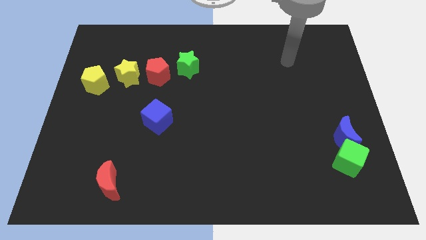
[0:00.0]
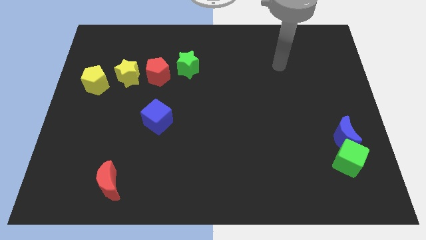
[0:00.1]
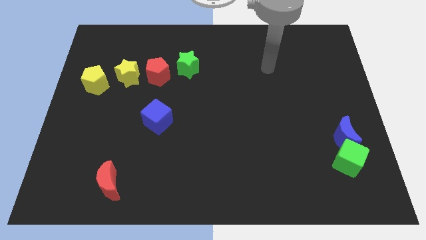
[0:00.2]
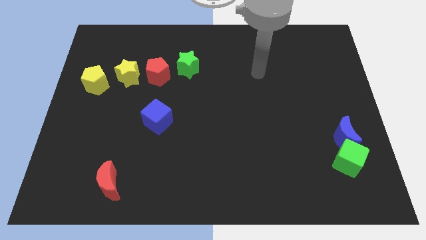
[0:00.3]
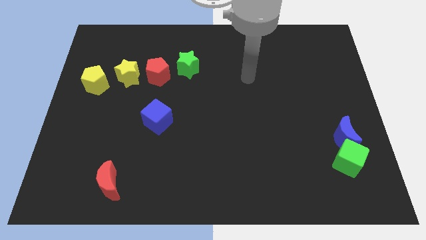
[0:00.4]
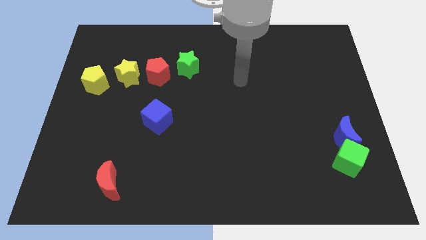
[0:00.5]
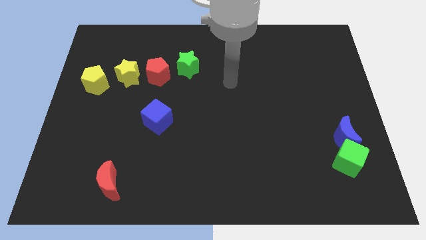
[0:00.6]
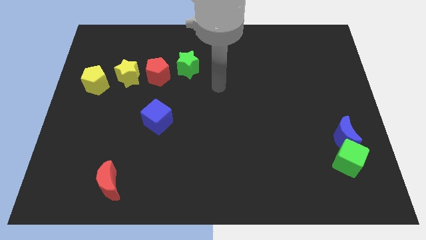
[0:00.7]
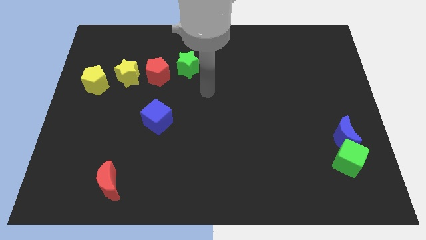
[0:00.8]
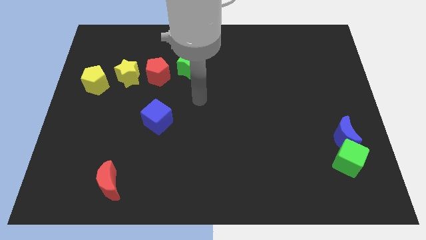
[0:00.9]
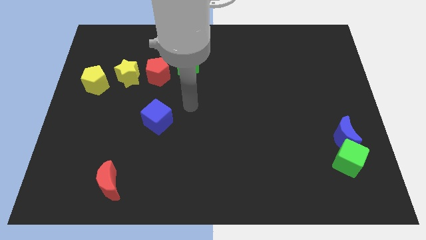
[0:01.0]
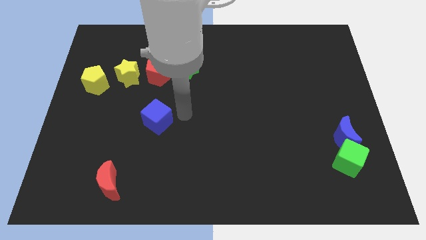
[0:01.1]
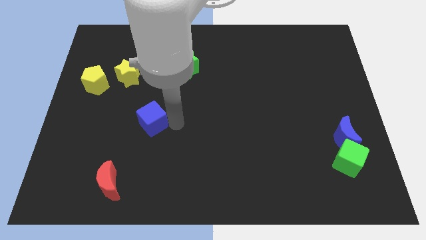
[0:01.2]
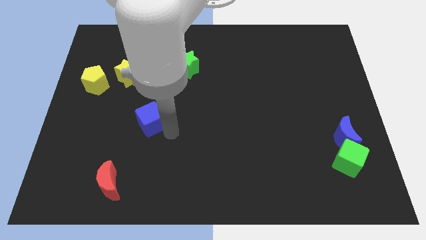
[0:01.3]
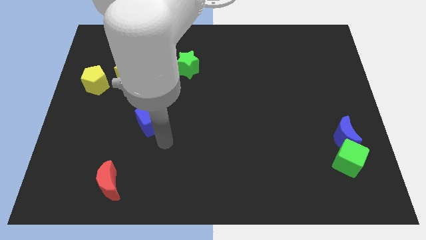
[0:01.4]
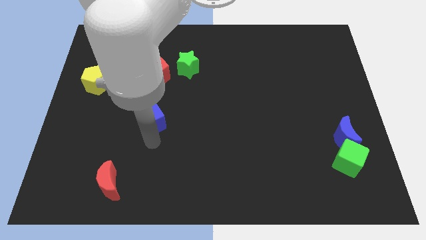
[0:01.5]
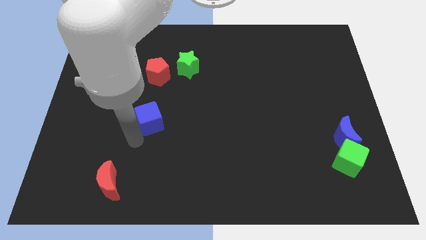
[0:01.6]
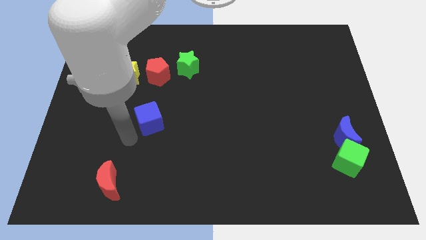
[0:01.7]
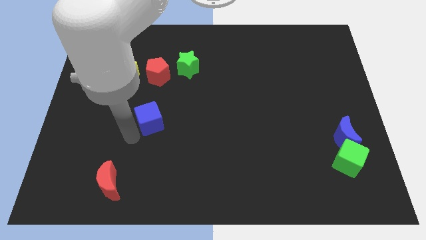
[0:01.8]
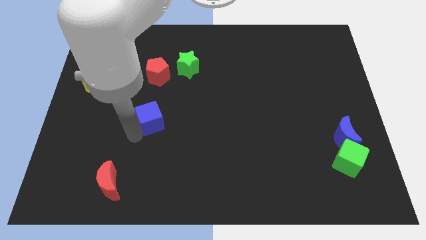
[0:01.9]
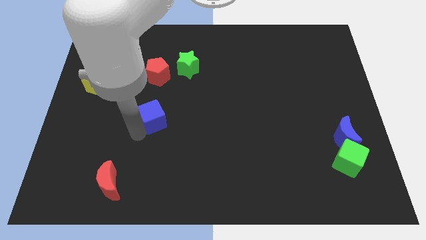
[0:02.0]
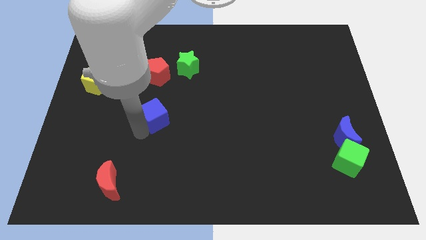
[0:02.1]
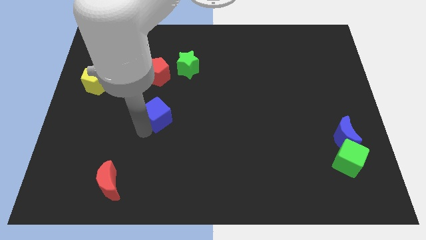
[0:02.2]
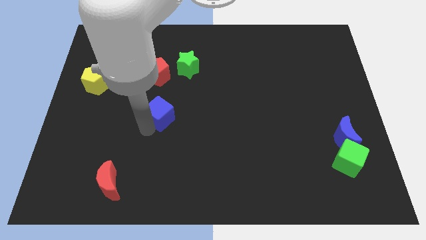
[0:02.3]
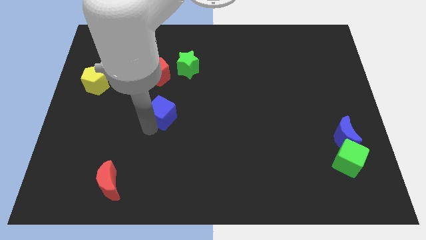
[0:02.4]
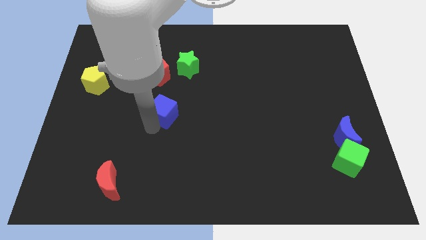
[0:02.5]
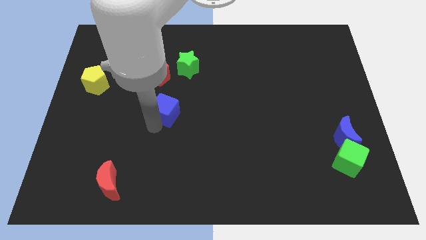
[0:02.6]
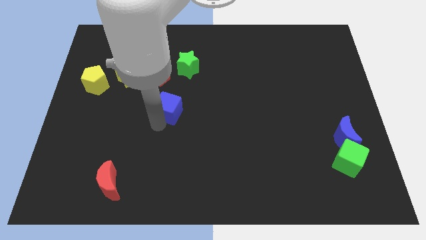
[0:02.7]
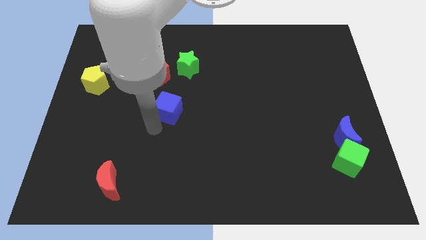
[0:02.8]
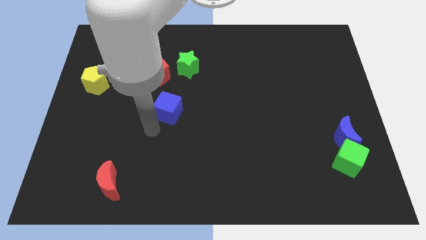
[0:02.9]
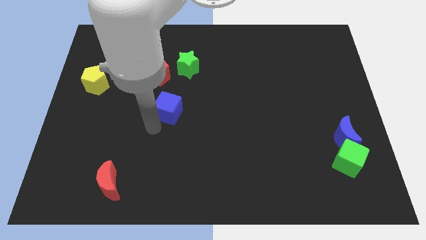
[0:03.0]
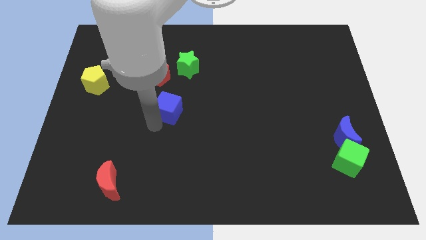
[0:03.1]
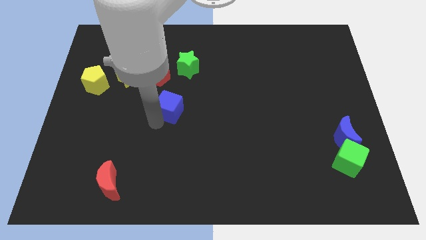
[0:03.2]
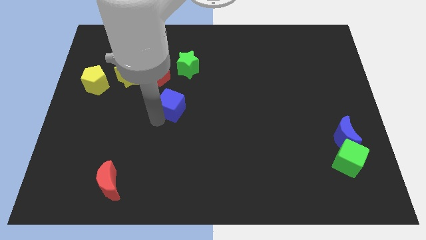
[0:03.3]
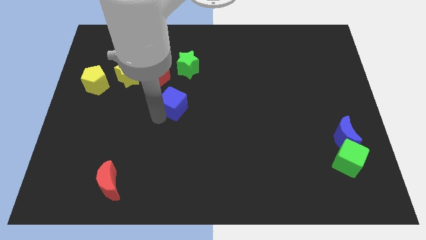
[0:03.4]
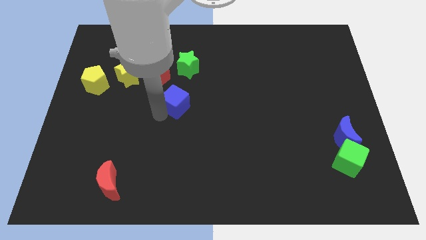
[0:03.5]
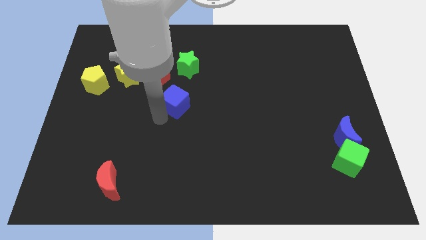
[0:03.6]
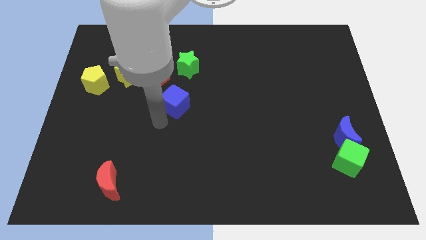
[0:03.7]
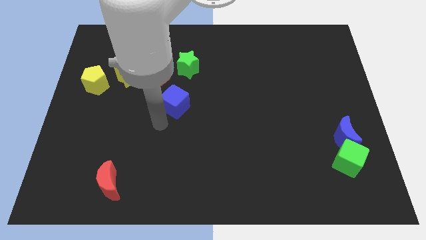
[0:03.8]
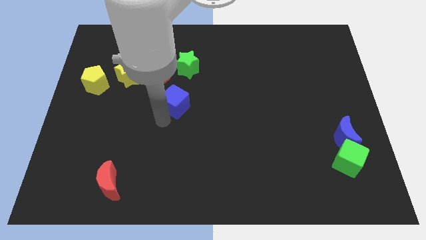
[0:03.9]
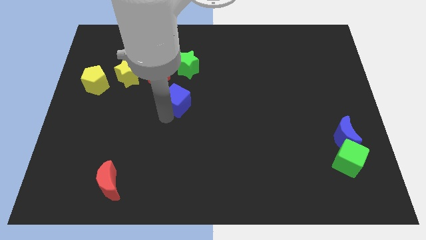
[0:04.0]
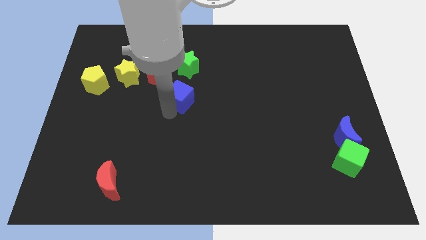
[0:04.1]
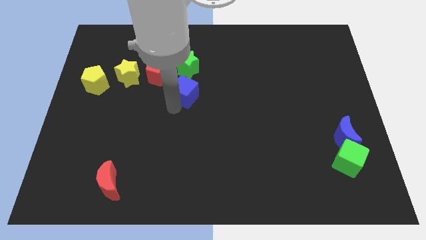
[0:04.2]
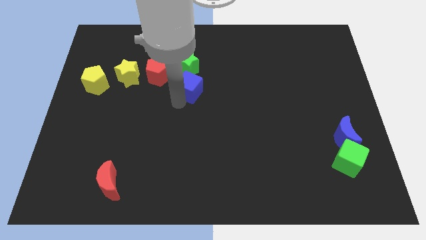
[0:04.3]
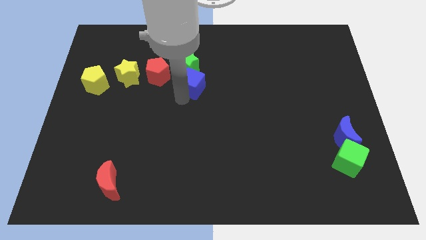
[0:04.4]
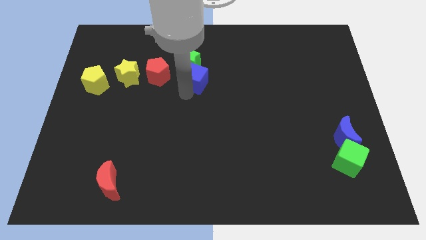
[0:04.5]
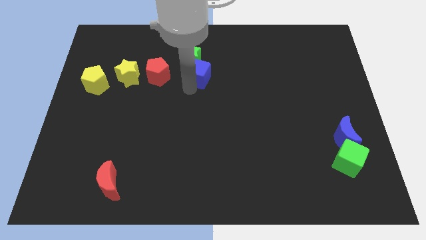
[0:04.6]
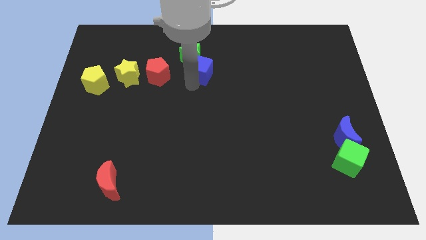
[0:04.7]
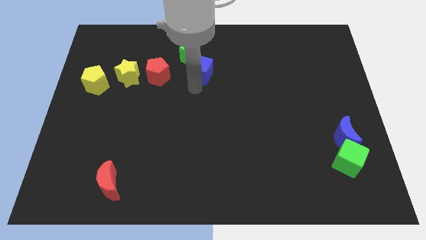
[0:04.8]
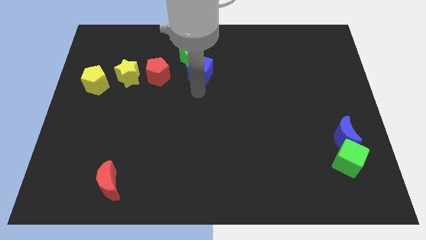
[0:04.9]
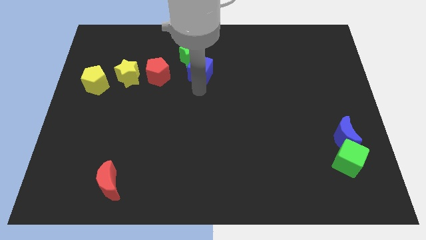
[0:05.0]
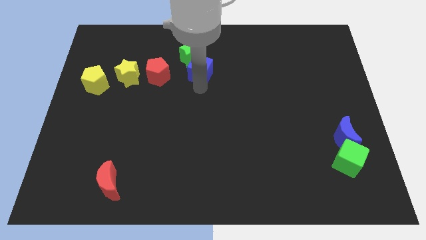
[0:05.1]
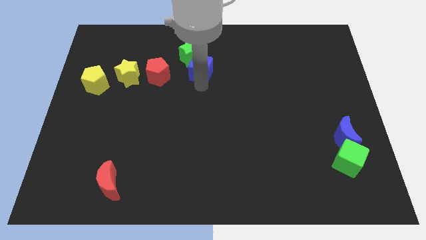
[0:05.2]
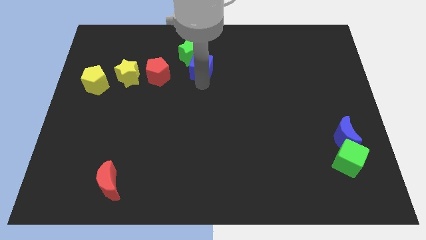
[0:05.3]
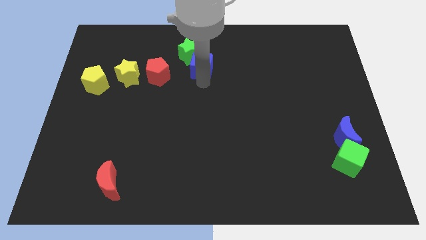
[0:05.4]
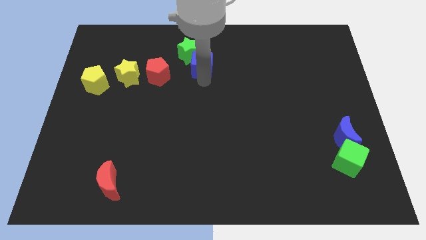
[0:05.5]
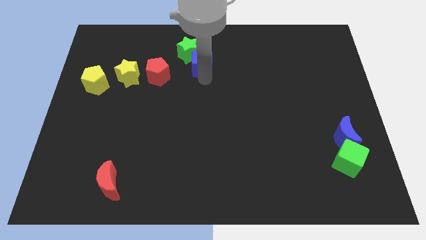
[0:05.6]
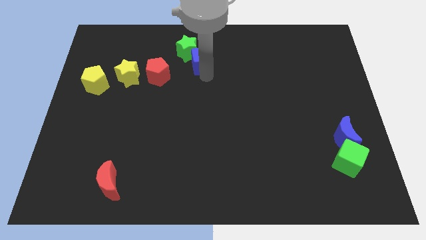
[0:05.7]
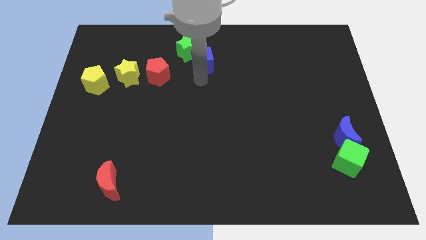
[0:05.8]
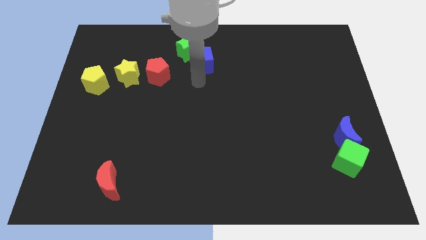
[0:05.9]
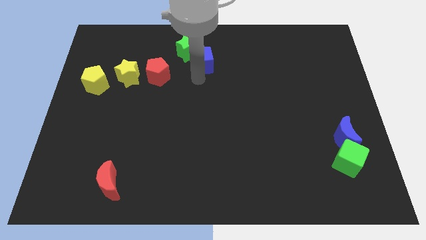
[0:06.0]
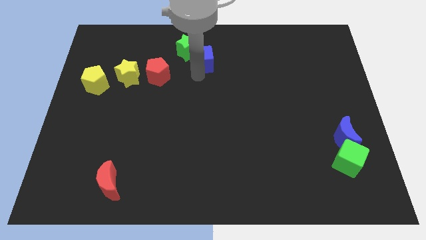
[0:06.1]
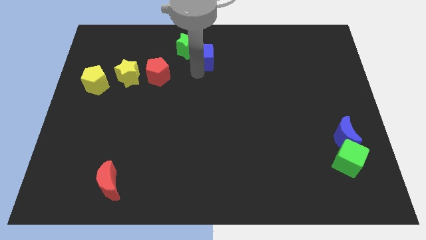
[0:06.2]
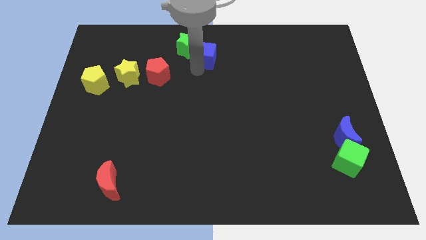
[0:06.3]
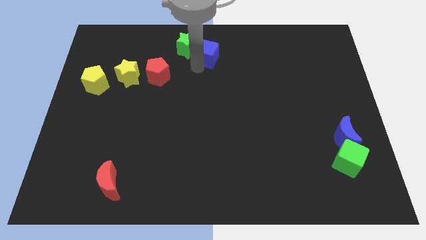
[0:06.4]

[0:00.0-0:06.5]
slide the blue cube to the top
